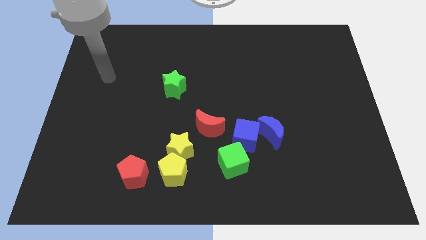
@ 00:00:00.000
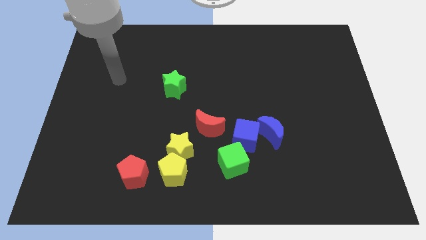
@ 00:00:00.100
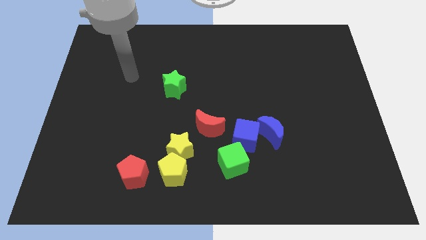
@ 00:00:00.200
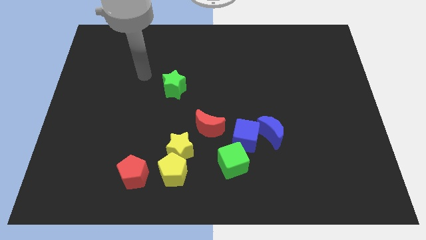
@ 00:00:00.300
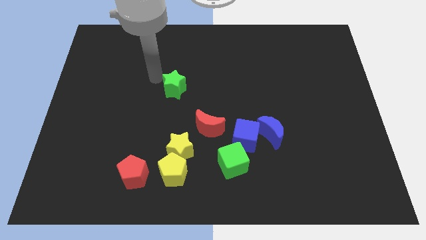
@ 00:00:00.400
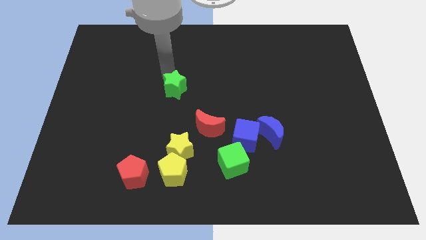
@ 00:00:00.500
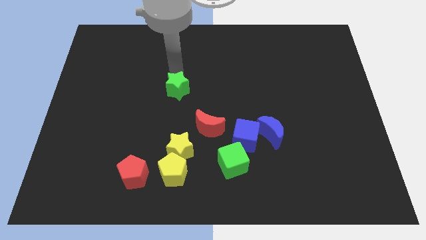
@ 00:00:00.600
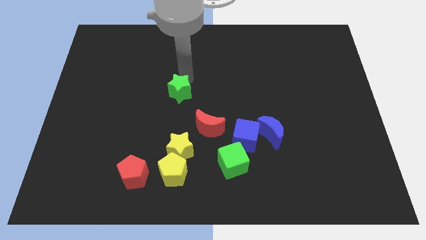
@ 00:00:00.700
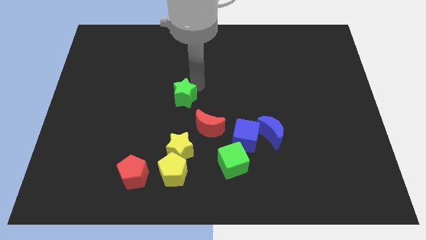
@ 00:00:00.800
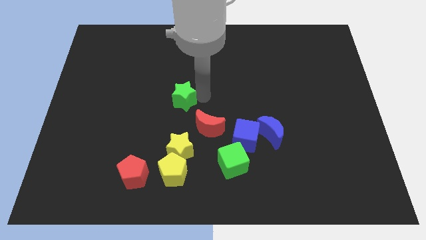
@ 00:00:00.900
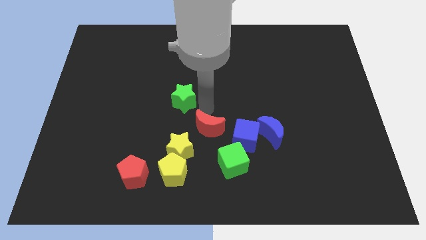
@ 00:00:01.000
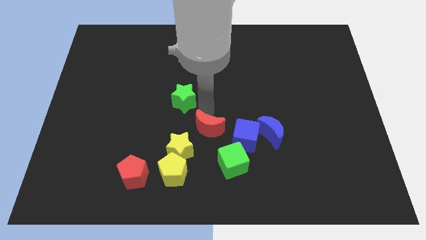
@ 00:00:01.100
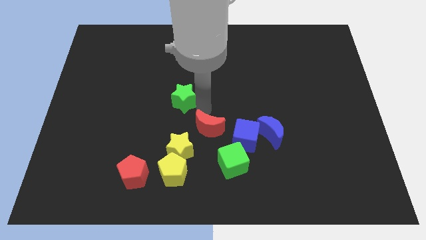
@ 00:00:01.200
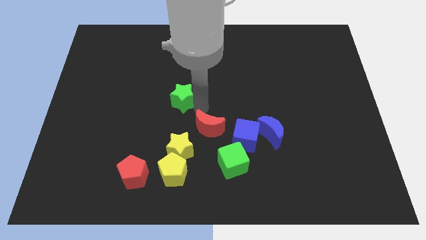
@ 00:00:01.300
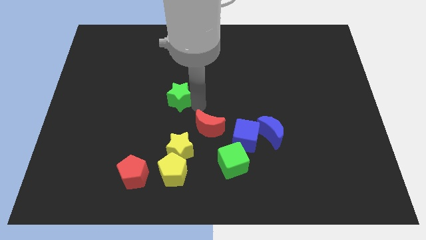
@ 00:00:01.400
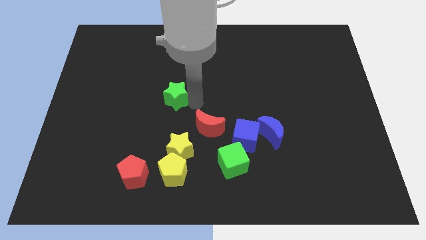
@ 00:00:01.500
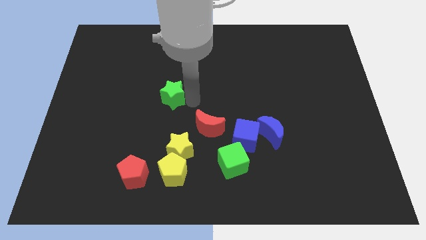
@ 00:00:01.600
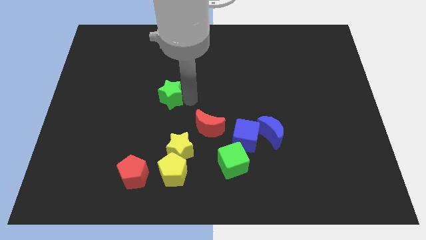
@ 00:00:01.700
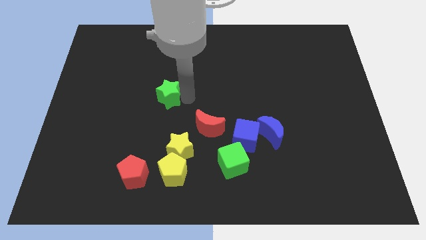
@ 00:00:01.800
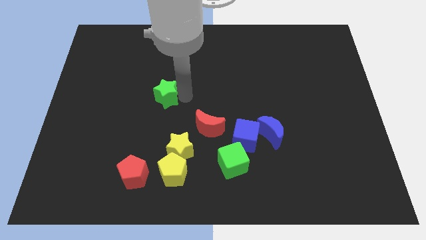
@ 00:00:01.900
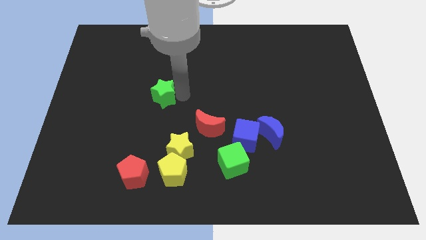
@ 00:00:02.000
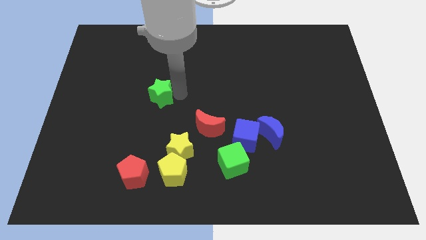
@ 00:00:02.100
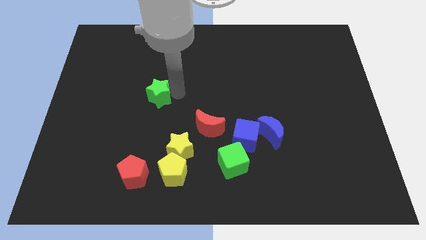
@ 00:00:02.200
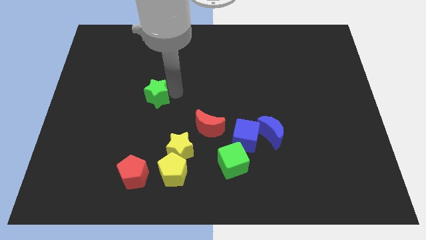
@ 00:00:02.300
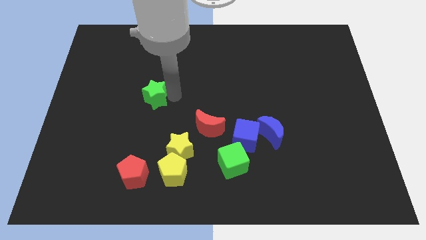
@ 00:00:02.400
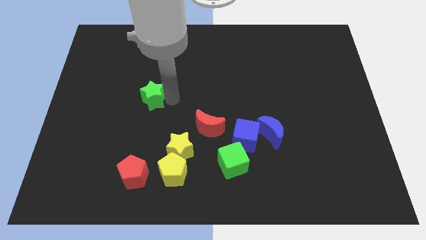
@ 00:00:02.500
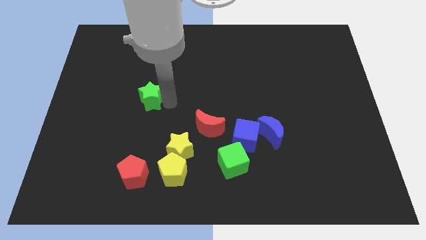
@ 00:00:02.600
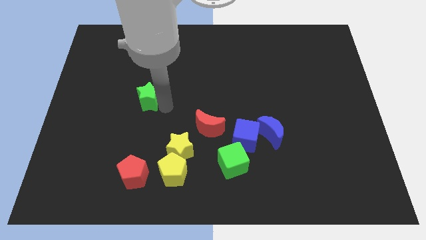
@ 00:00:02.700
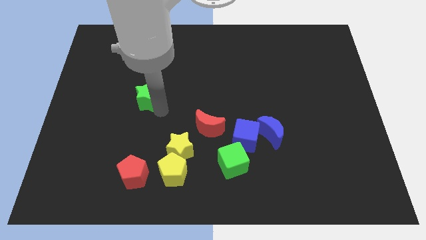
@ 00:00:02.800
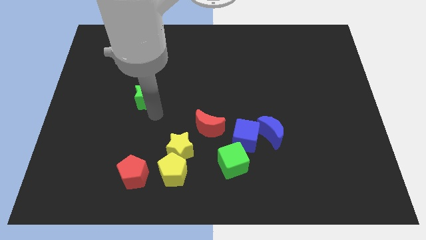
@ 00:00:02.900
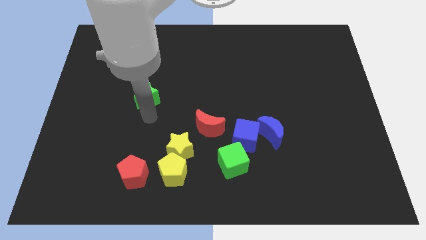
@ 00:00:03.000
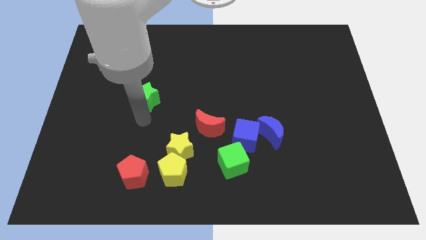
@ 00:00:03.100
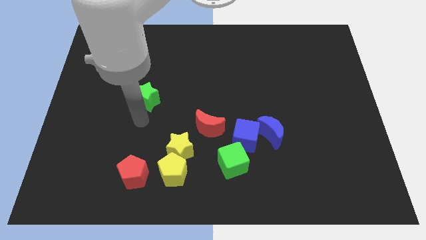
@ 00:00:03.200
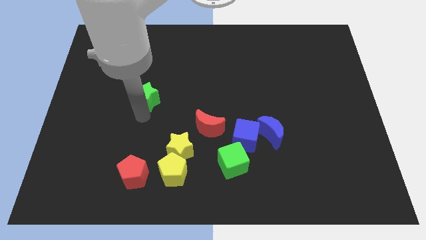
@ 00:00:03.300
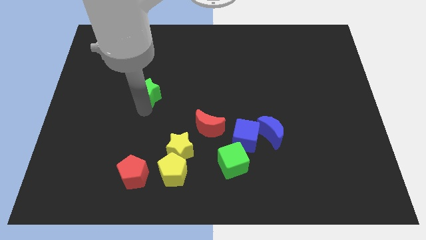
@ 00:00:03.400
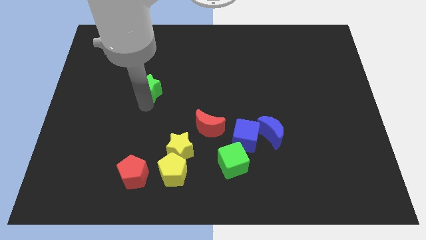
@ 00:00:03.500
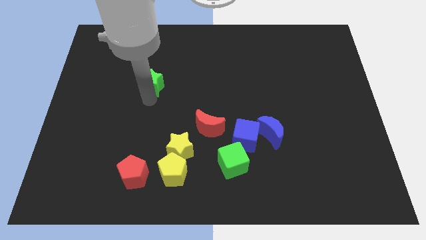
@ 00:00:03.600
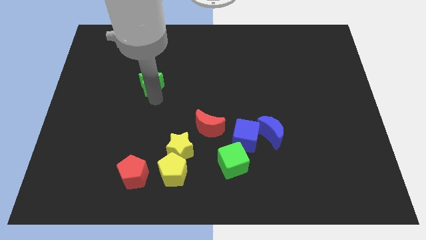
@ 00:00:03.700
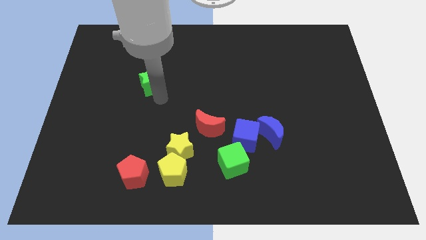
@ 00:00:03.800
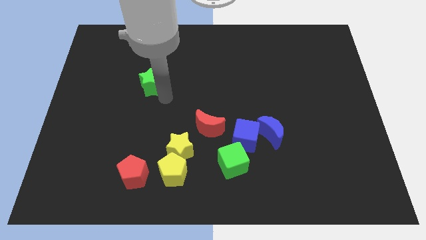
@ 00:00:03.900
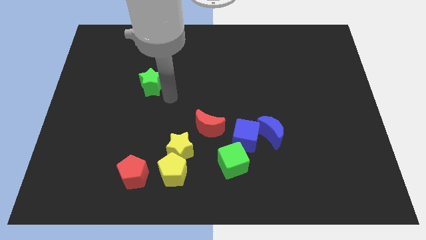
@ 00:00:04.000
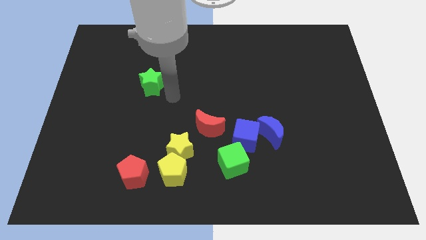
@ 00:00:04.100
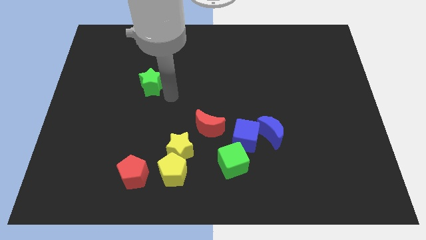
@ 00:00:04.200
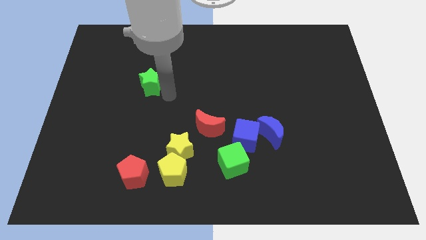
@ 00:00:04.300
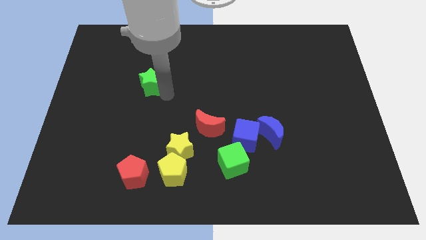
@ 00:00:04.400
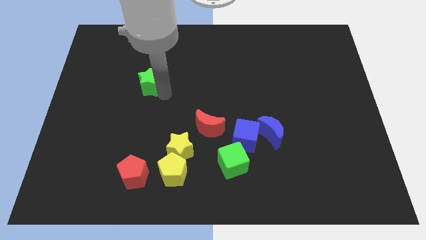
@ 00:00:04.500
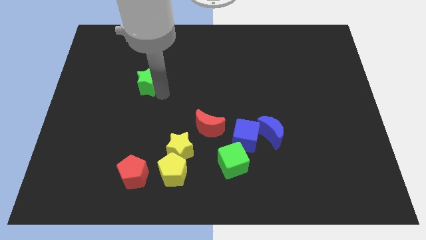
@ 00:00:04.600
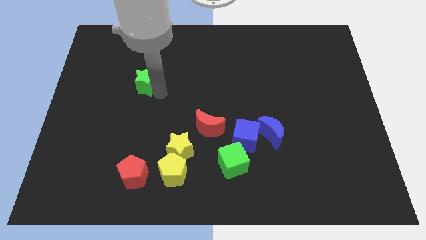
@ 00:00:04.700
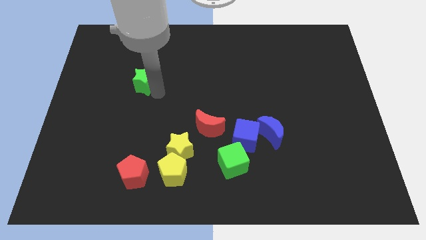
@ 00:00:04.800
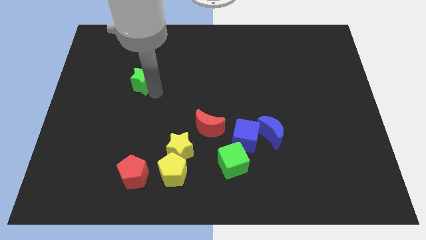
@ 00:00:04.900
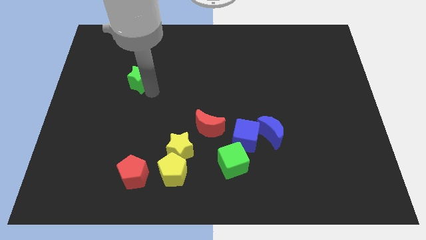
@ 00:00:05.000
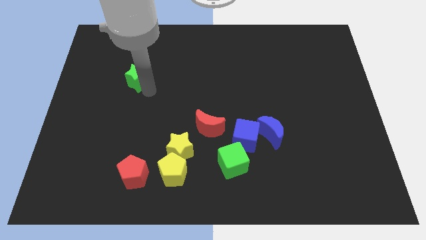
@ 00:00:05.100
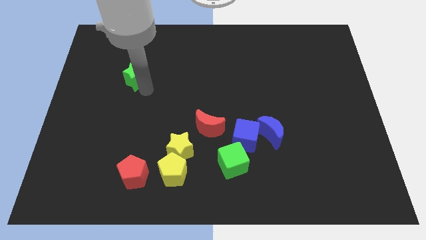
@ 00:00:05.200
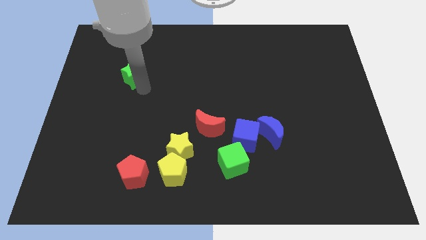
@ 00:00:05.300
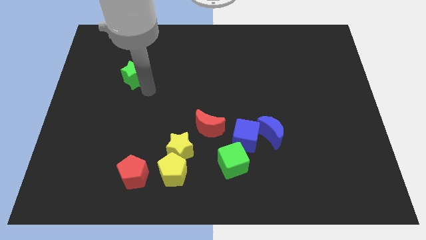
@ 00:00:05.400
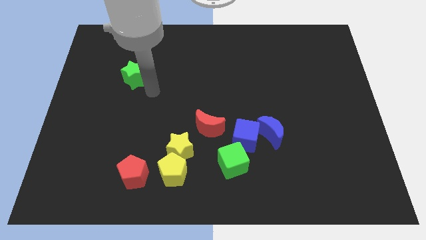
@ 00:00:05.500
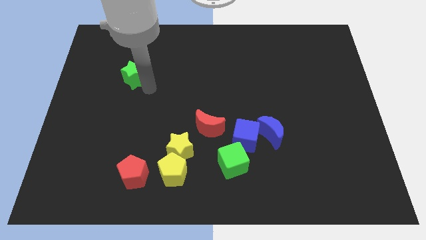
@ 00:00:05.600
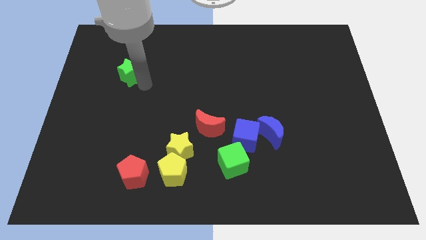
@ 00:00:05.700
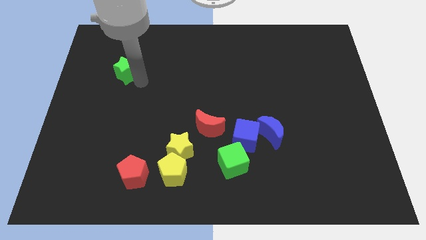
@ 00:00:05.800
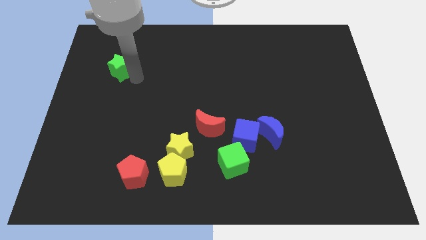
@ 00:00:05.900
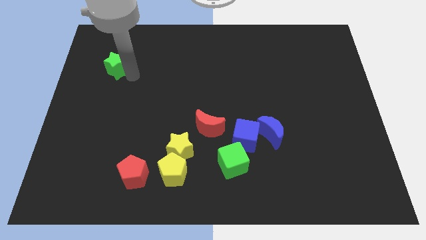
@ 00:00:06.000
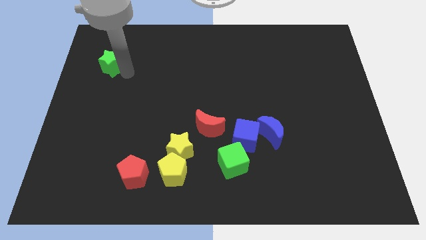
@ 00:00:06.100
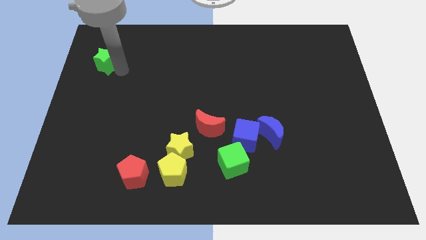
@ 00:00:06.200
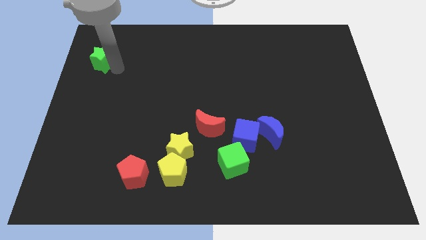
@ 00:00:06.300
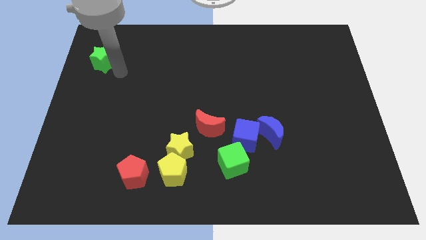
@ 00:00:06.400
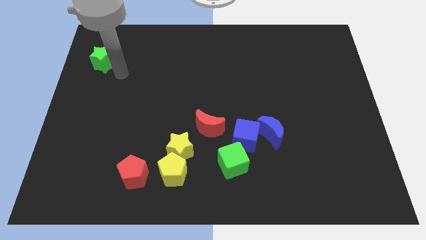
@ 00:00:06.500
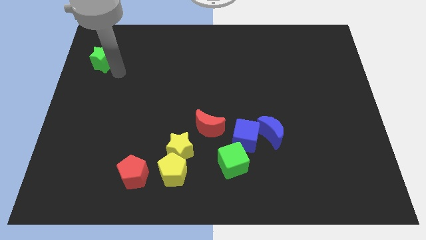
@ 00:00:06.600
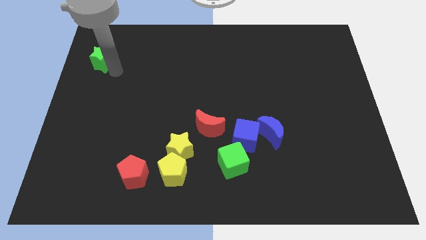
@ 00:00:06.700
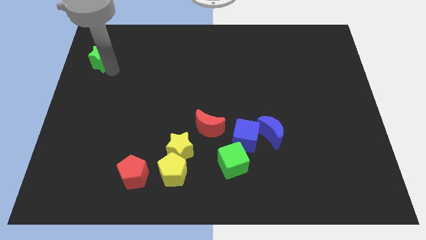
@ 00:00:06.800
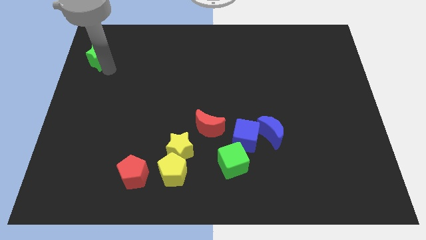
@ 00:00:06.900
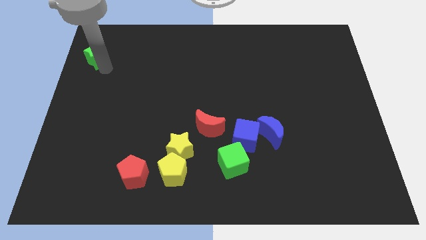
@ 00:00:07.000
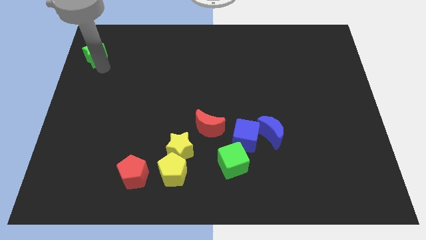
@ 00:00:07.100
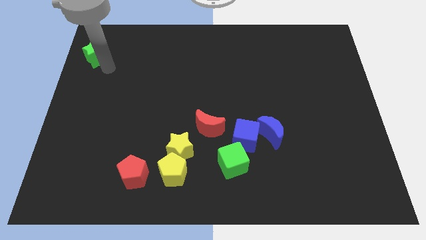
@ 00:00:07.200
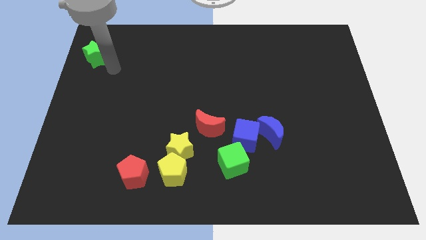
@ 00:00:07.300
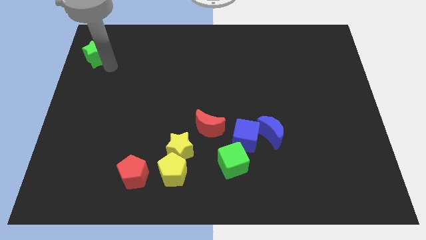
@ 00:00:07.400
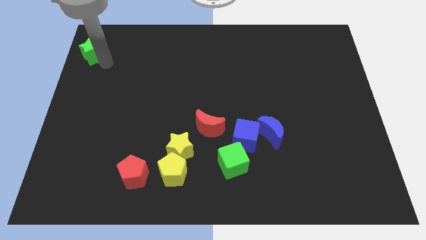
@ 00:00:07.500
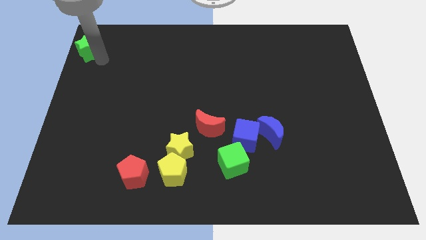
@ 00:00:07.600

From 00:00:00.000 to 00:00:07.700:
move the green star to the top left corner
